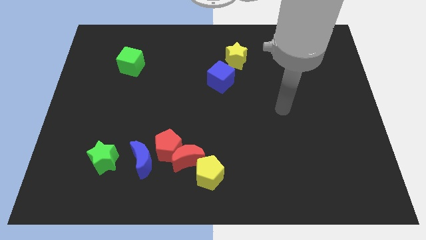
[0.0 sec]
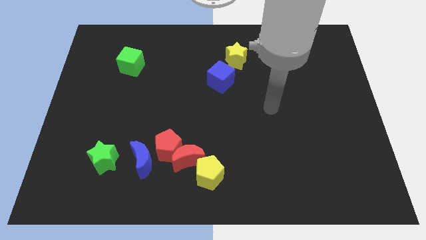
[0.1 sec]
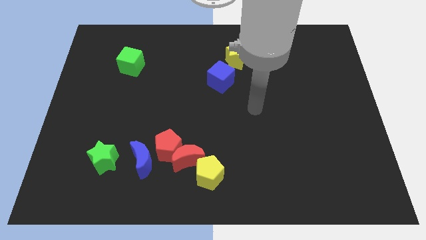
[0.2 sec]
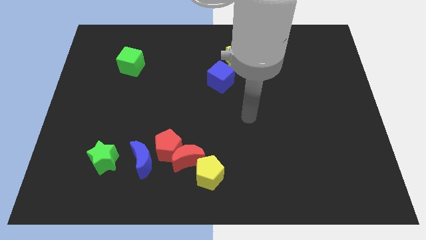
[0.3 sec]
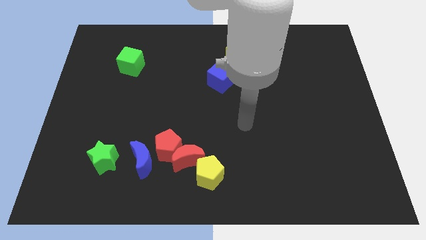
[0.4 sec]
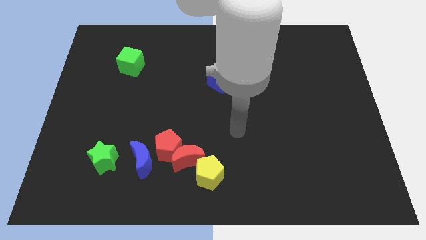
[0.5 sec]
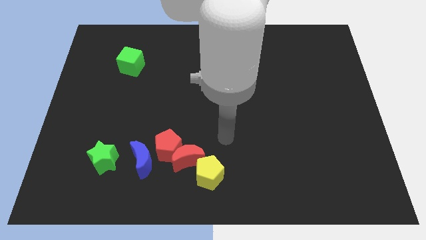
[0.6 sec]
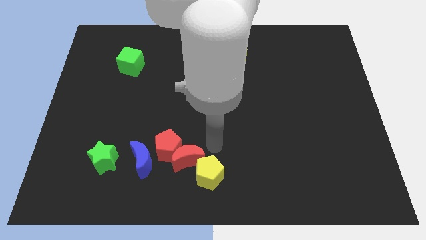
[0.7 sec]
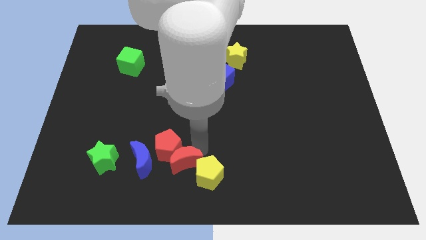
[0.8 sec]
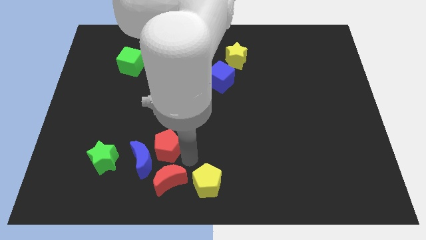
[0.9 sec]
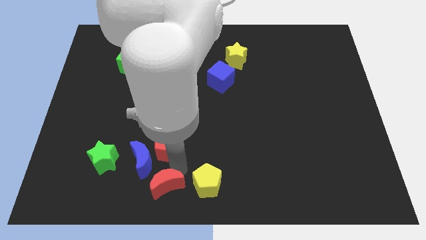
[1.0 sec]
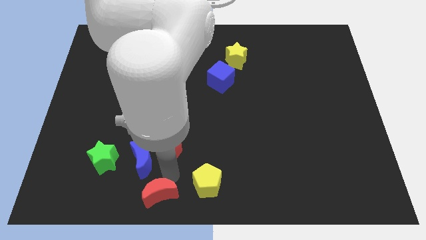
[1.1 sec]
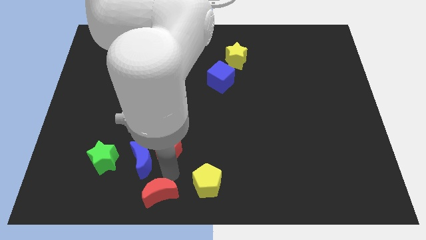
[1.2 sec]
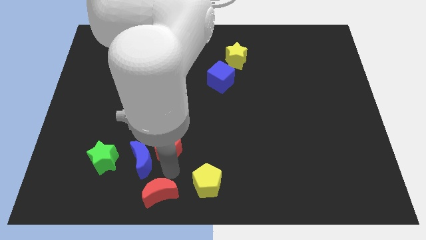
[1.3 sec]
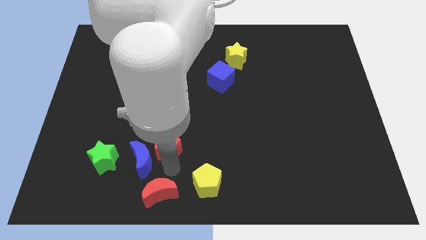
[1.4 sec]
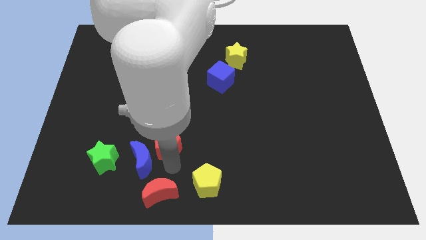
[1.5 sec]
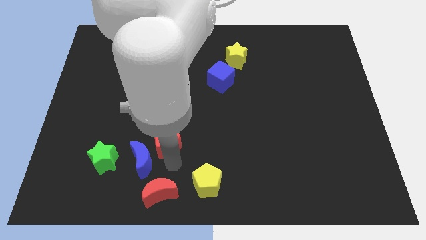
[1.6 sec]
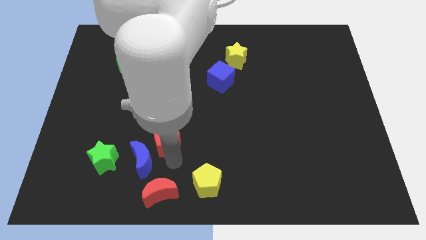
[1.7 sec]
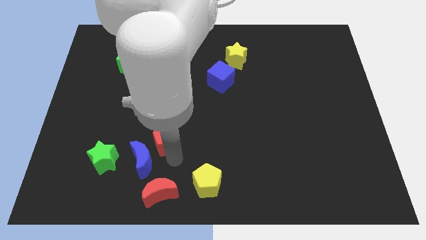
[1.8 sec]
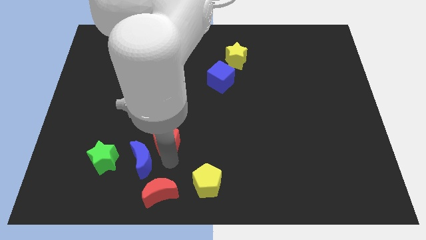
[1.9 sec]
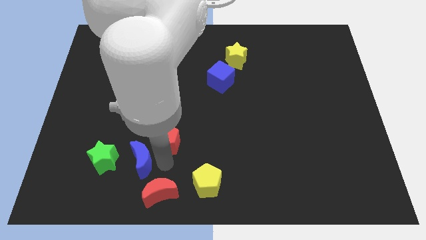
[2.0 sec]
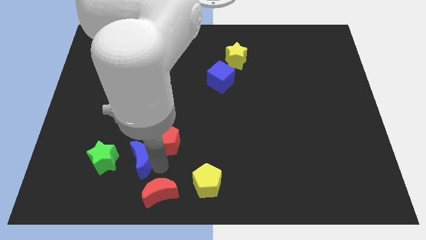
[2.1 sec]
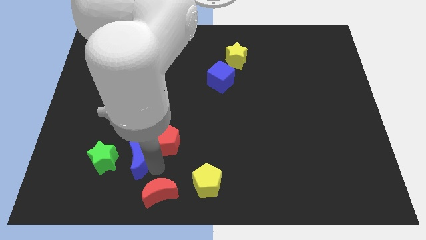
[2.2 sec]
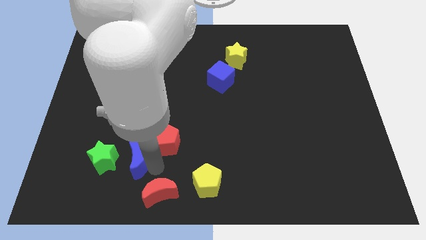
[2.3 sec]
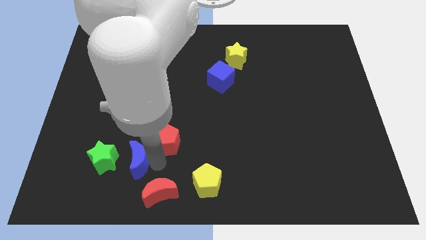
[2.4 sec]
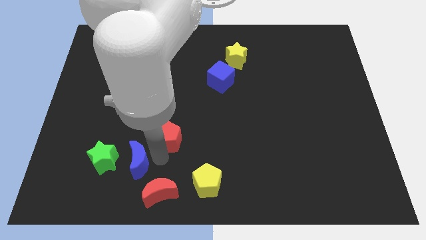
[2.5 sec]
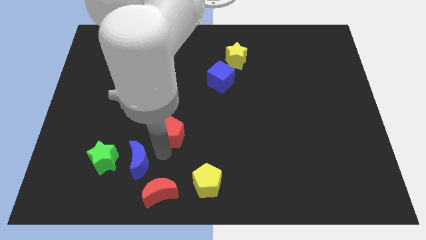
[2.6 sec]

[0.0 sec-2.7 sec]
pull the red pentagon apart from the red moon and blue moon

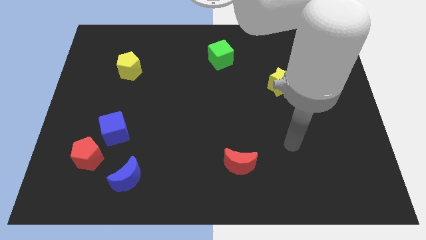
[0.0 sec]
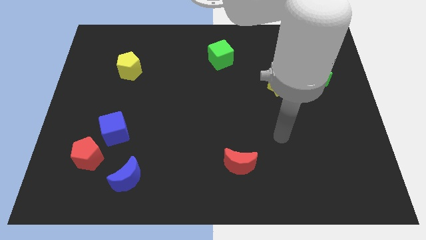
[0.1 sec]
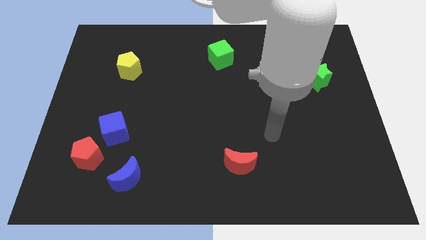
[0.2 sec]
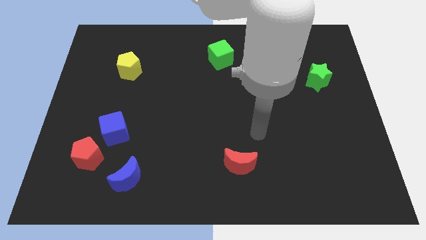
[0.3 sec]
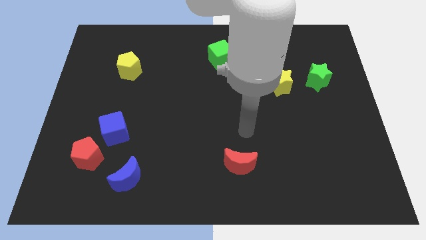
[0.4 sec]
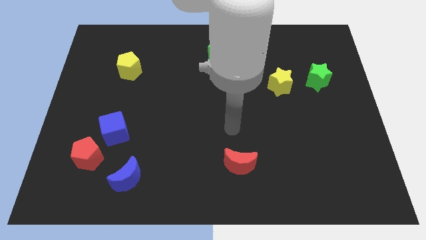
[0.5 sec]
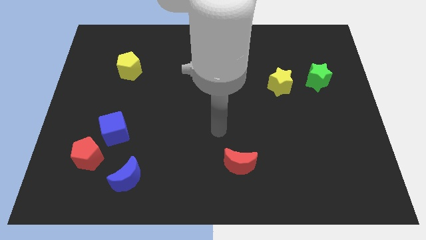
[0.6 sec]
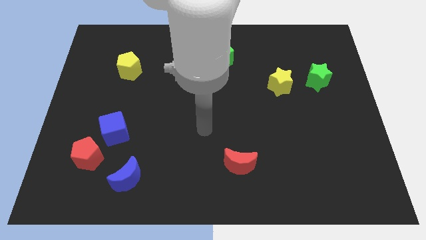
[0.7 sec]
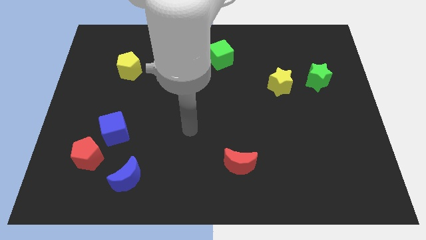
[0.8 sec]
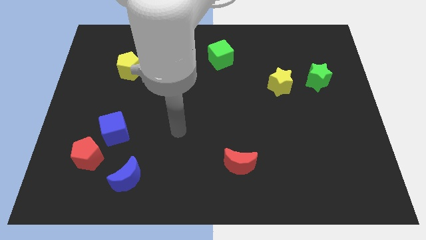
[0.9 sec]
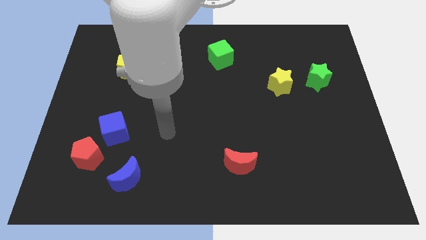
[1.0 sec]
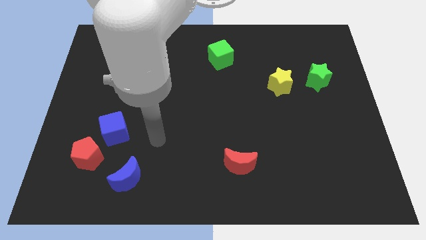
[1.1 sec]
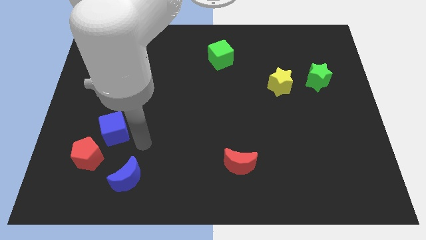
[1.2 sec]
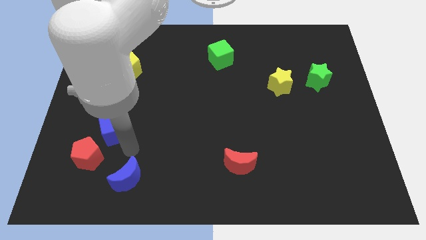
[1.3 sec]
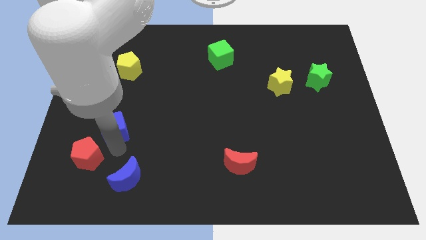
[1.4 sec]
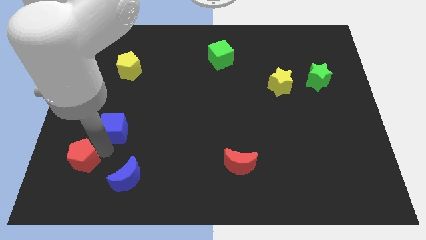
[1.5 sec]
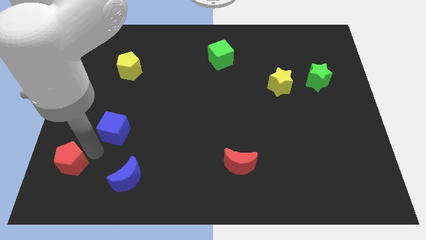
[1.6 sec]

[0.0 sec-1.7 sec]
move the blue cube away from the red pentagon

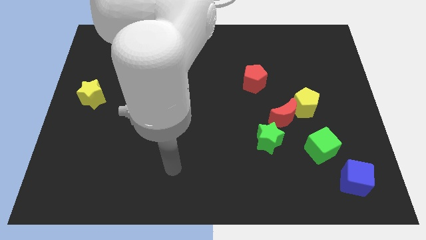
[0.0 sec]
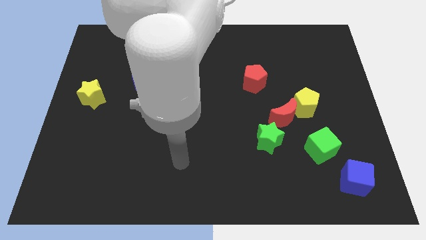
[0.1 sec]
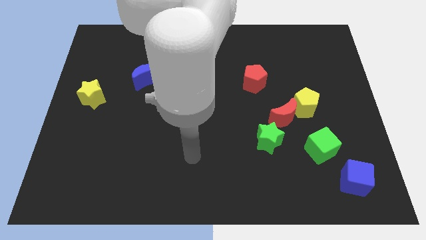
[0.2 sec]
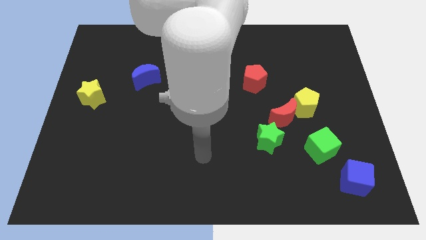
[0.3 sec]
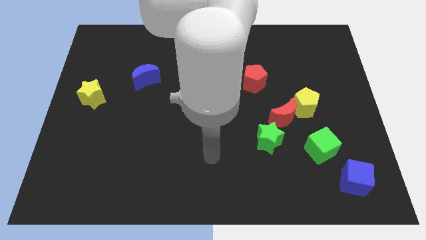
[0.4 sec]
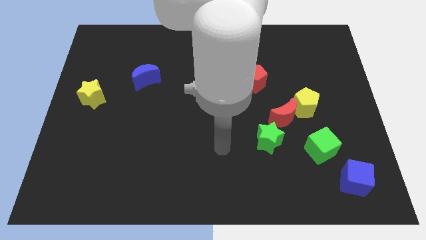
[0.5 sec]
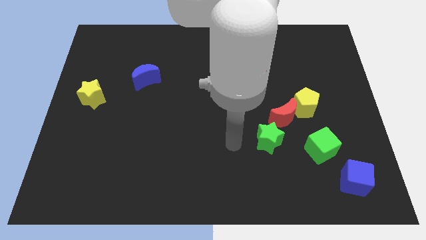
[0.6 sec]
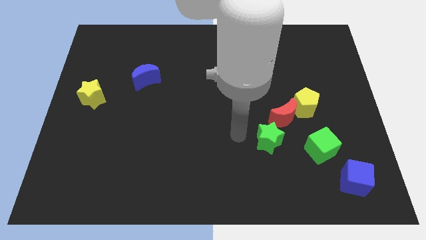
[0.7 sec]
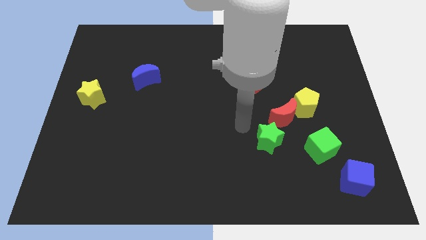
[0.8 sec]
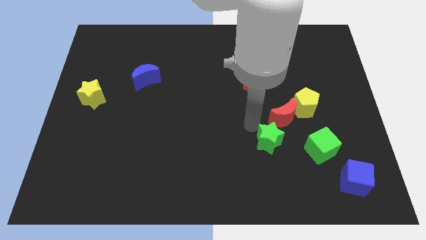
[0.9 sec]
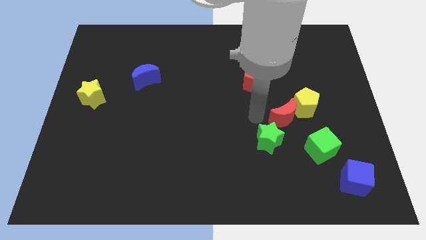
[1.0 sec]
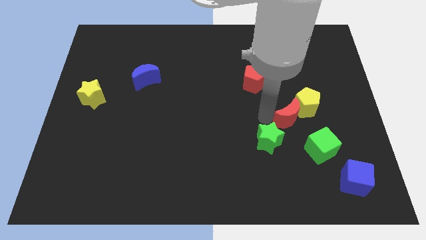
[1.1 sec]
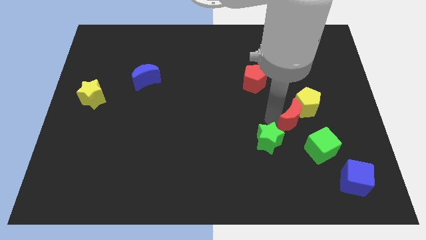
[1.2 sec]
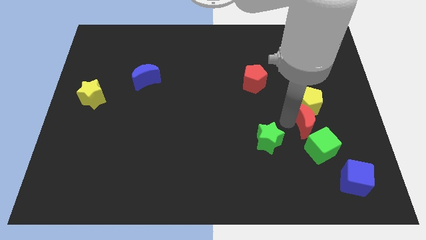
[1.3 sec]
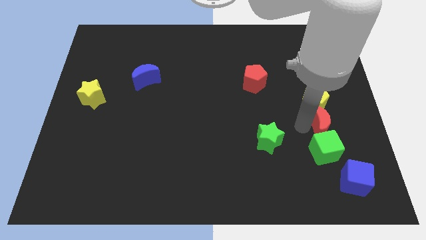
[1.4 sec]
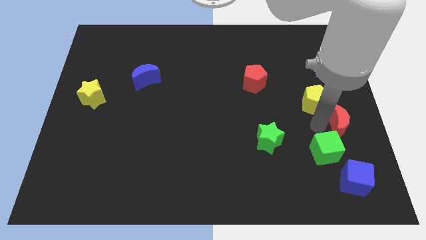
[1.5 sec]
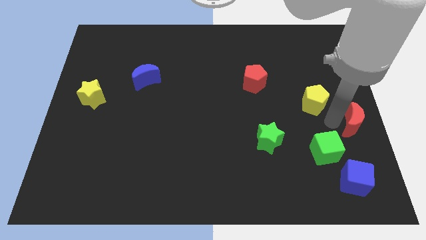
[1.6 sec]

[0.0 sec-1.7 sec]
separate the yellow pentagon from the red moon

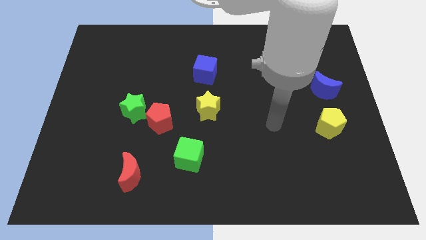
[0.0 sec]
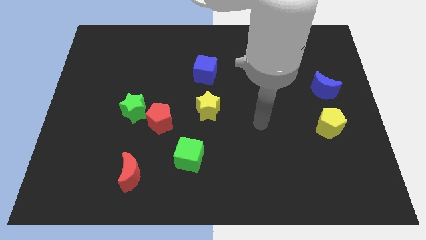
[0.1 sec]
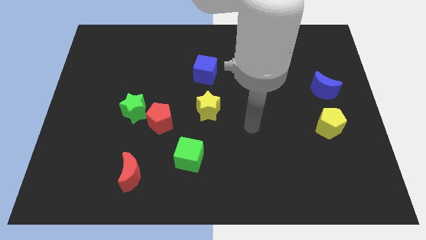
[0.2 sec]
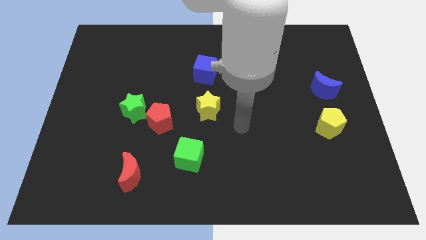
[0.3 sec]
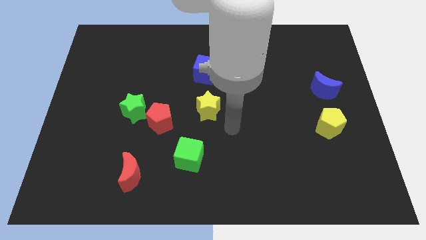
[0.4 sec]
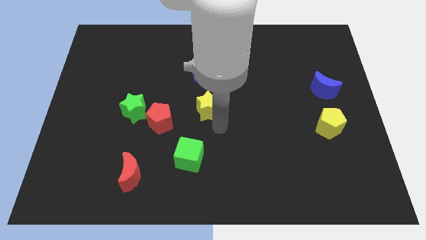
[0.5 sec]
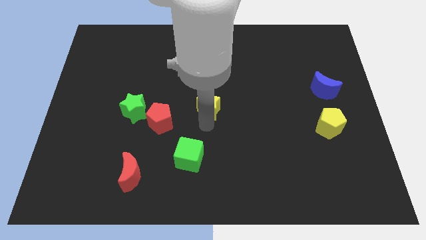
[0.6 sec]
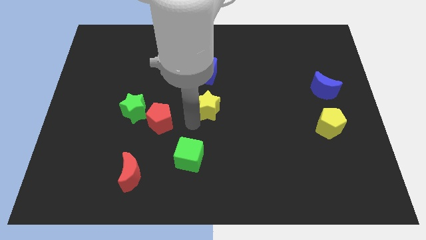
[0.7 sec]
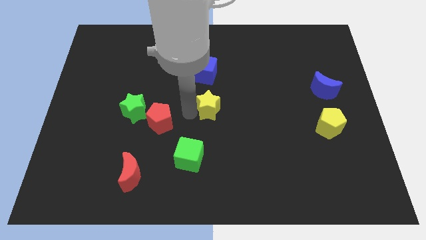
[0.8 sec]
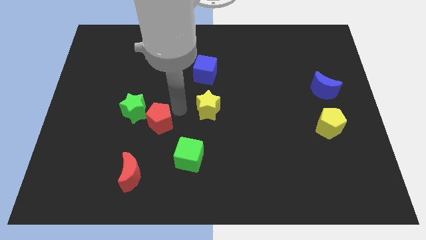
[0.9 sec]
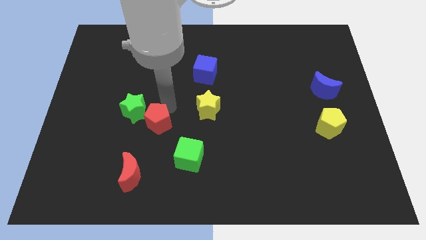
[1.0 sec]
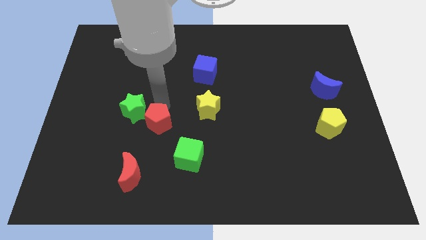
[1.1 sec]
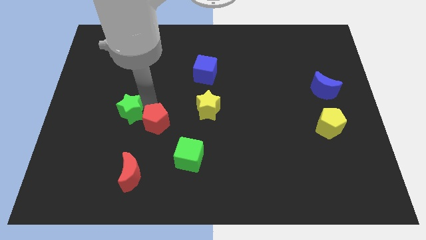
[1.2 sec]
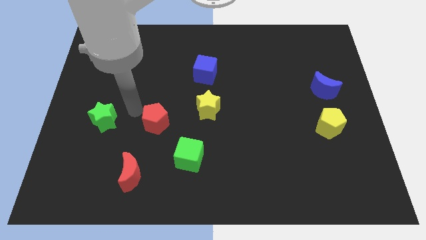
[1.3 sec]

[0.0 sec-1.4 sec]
separate the red pentagon from the green star

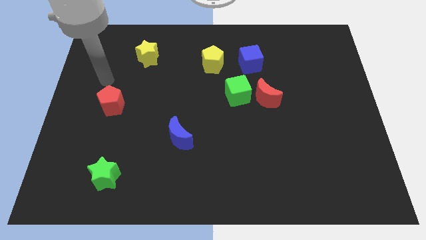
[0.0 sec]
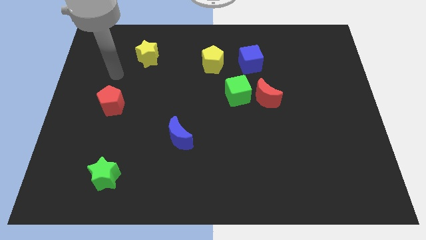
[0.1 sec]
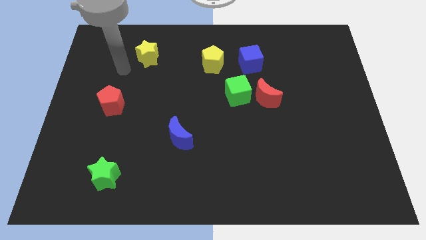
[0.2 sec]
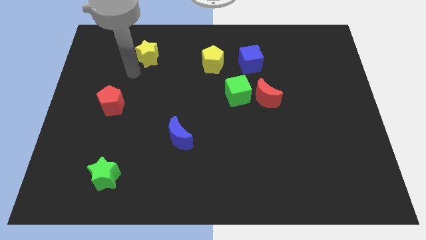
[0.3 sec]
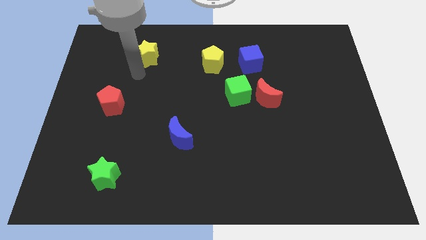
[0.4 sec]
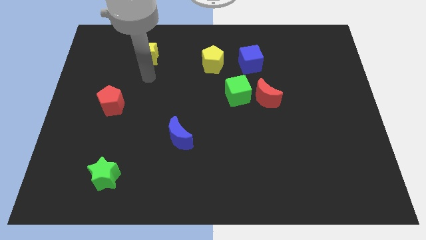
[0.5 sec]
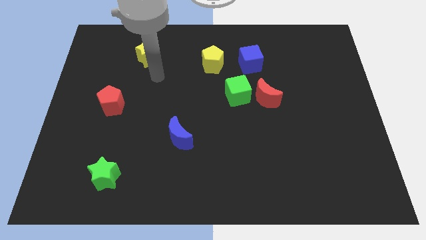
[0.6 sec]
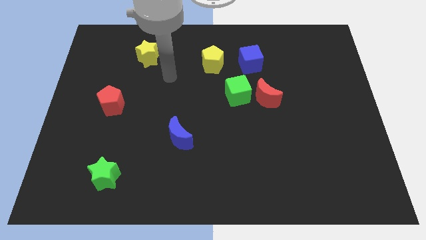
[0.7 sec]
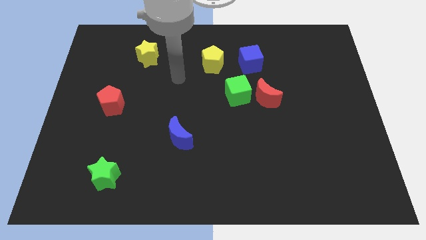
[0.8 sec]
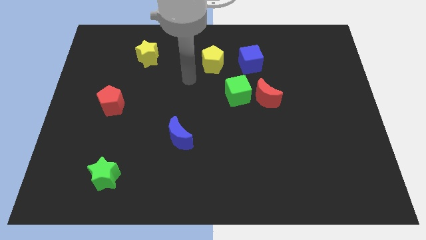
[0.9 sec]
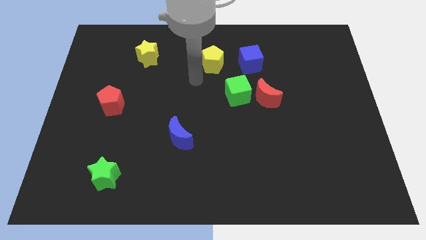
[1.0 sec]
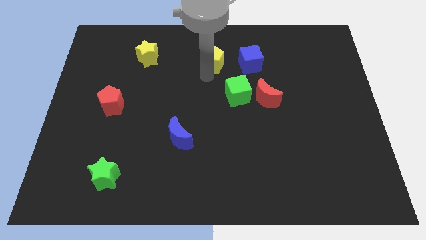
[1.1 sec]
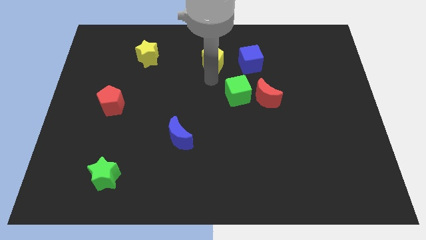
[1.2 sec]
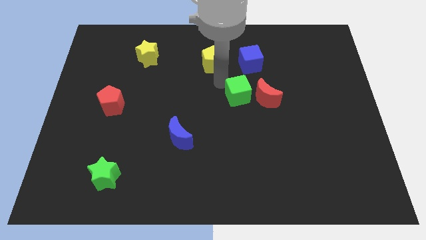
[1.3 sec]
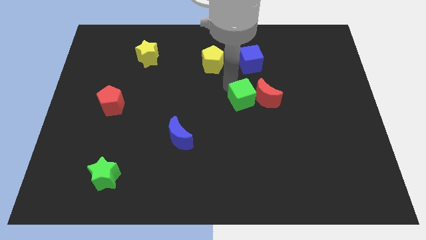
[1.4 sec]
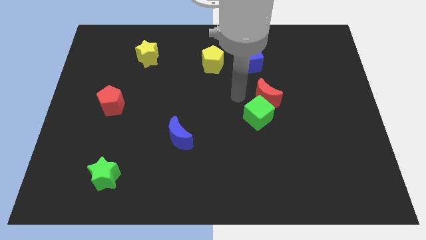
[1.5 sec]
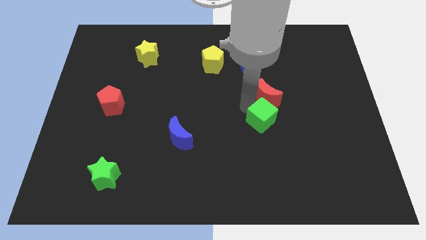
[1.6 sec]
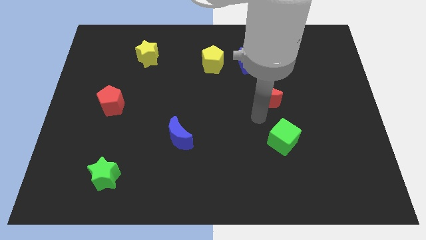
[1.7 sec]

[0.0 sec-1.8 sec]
move the red moon away from the green cube
